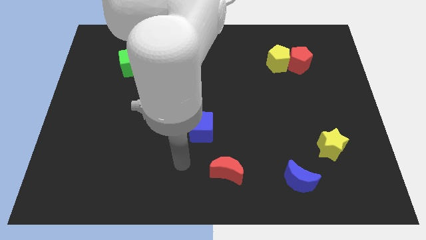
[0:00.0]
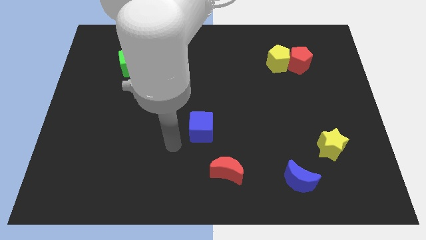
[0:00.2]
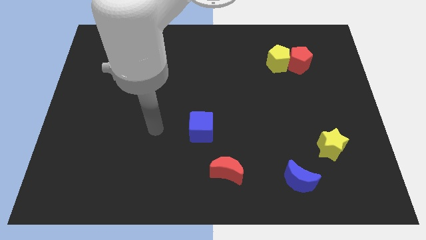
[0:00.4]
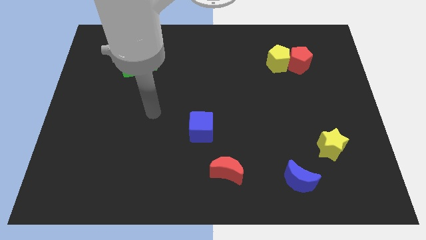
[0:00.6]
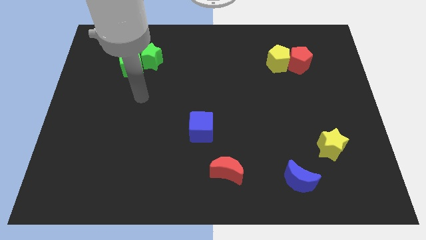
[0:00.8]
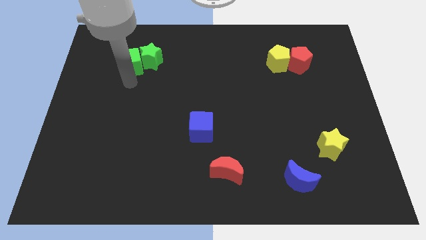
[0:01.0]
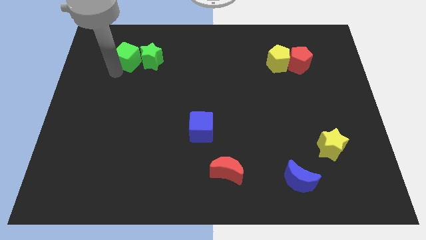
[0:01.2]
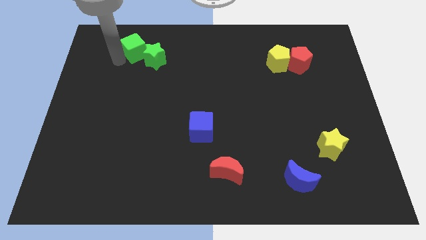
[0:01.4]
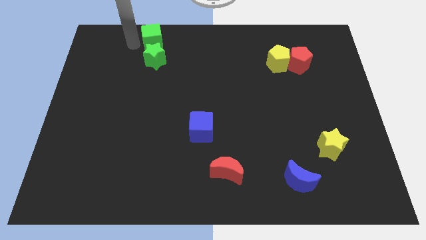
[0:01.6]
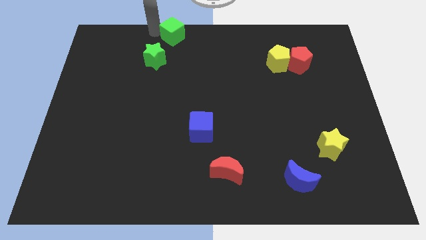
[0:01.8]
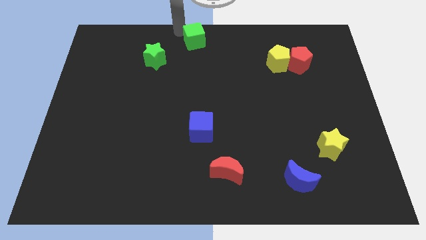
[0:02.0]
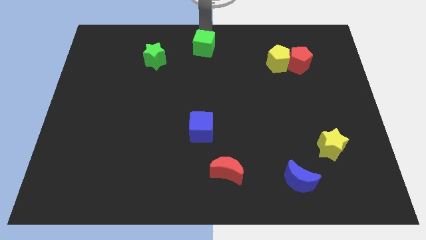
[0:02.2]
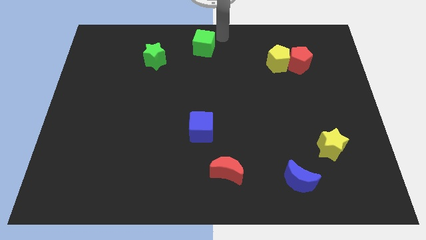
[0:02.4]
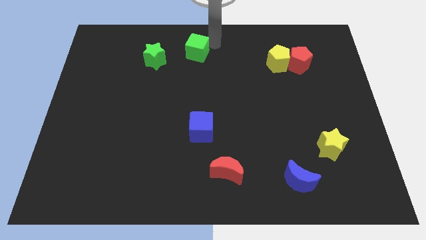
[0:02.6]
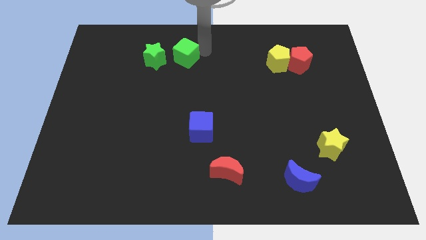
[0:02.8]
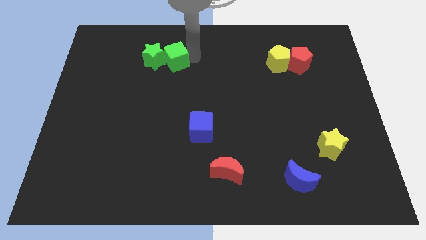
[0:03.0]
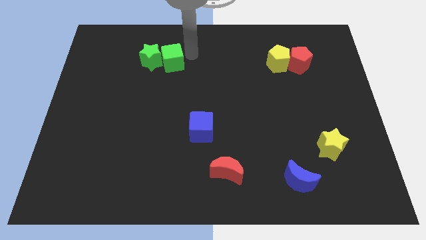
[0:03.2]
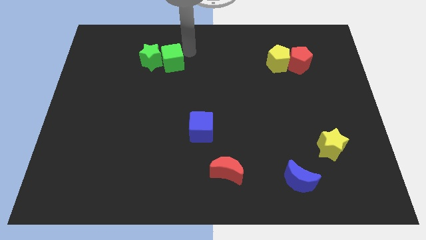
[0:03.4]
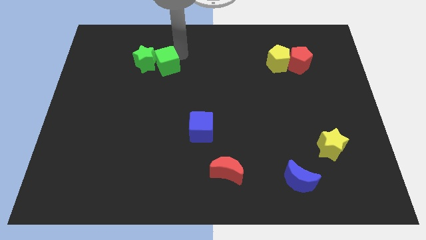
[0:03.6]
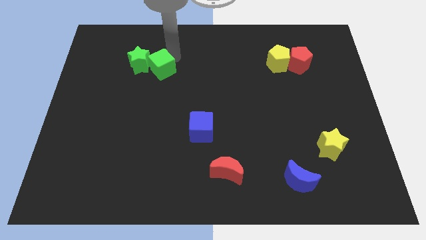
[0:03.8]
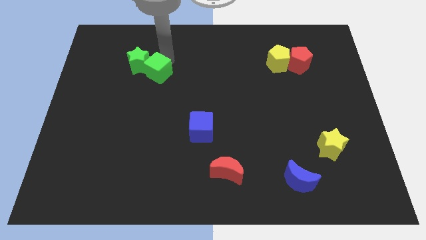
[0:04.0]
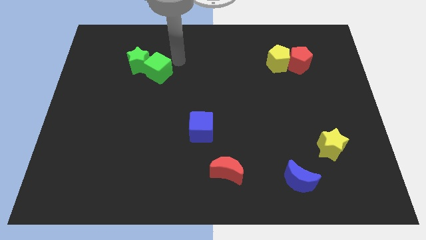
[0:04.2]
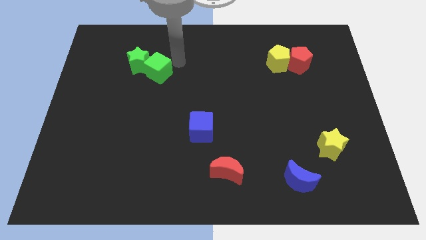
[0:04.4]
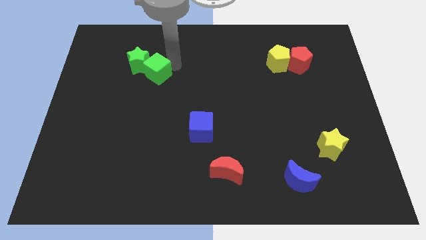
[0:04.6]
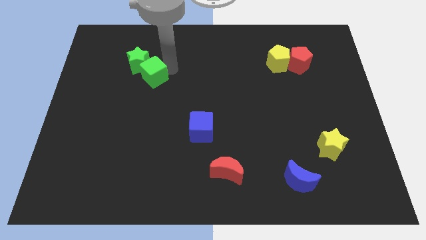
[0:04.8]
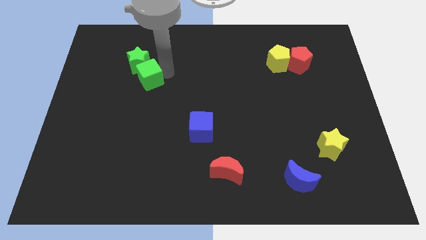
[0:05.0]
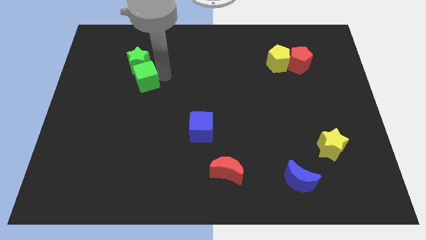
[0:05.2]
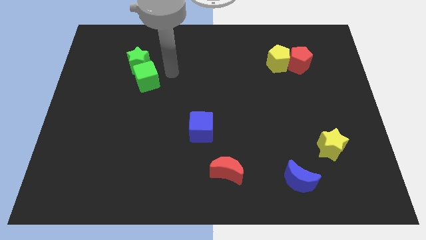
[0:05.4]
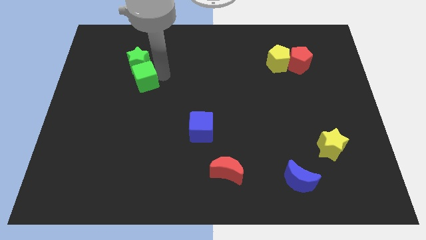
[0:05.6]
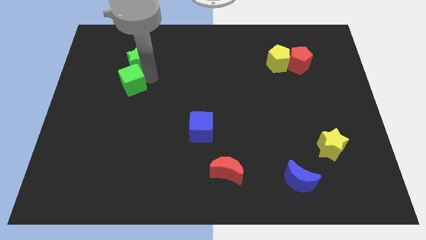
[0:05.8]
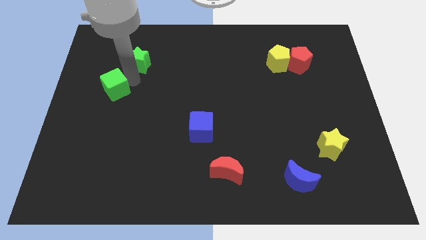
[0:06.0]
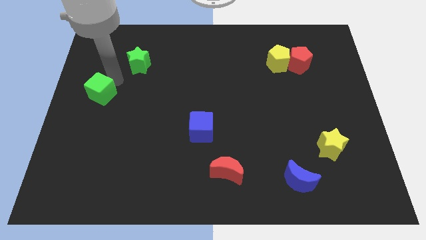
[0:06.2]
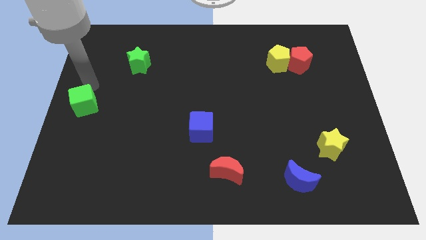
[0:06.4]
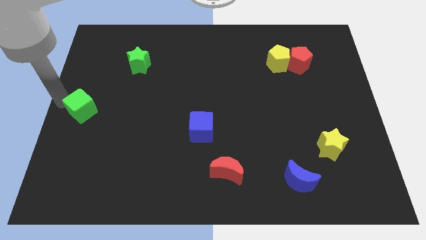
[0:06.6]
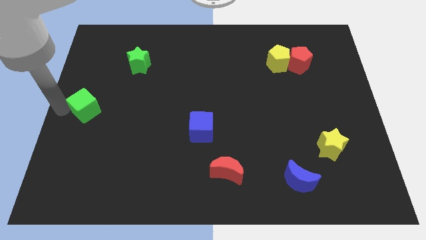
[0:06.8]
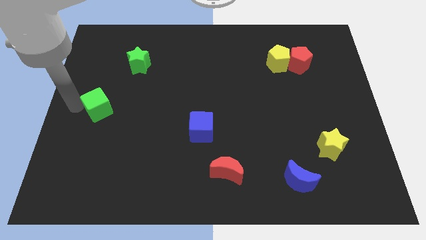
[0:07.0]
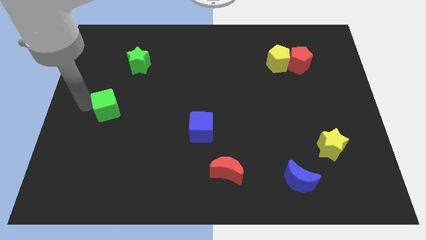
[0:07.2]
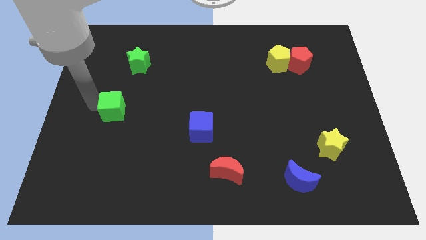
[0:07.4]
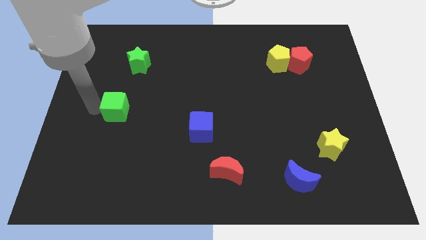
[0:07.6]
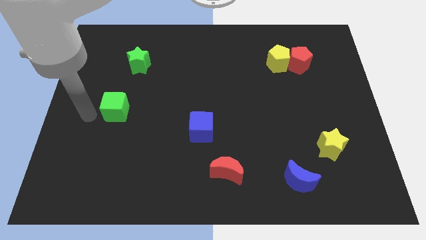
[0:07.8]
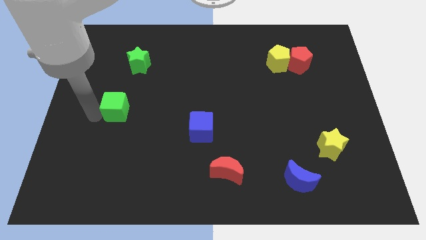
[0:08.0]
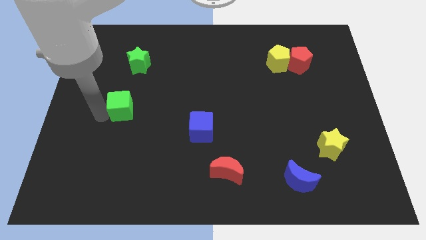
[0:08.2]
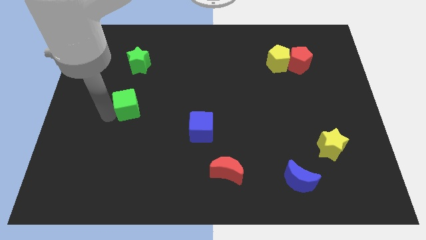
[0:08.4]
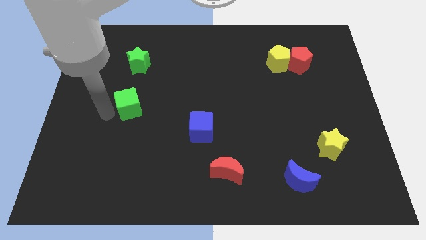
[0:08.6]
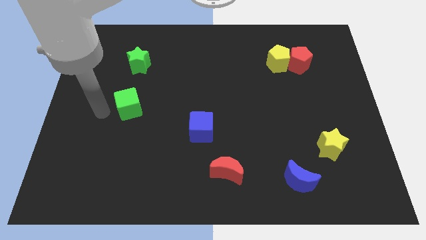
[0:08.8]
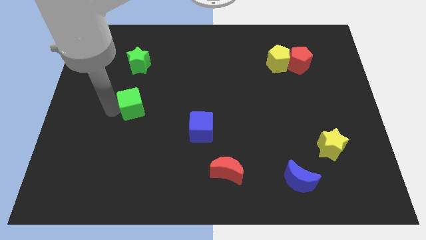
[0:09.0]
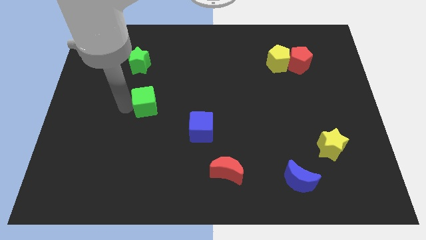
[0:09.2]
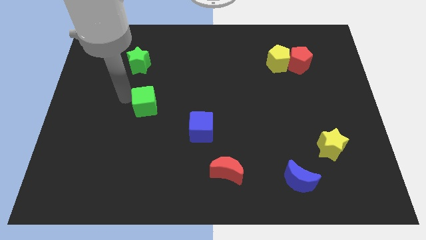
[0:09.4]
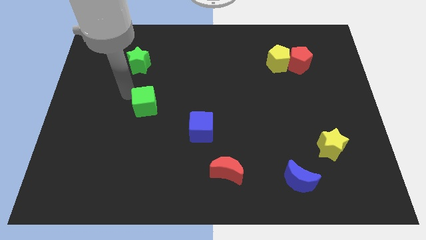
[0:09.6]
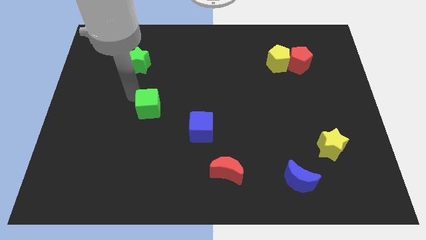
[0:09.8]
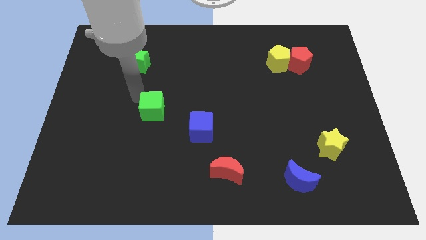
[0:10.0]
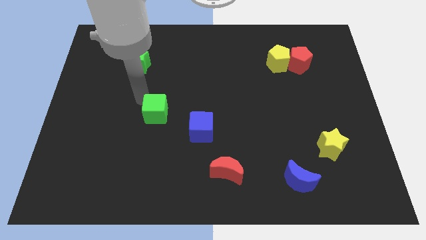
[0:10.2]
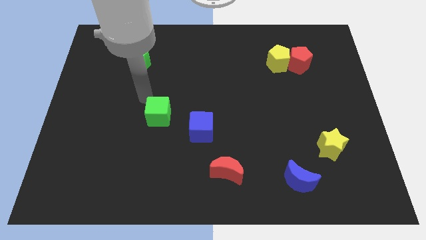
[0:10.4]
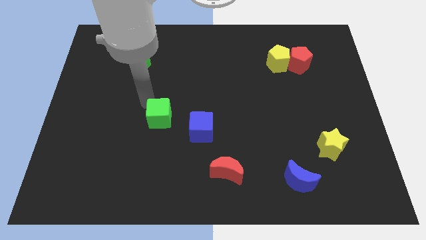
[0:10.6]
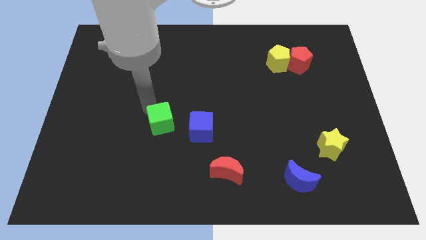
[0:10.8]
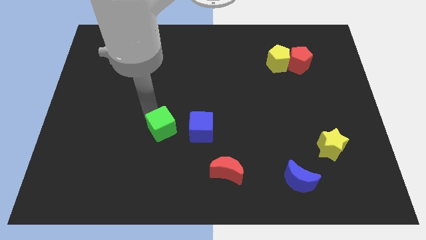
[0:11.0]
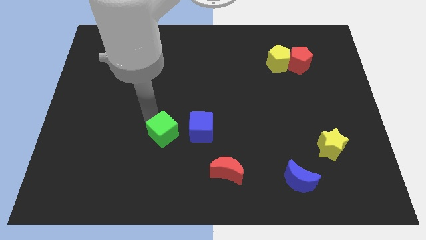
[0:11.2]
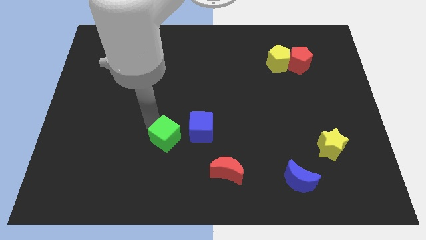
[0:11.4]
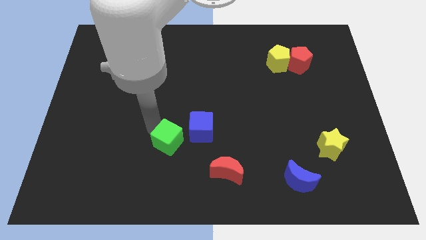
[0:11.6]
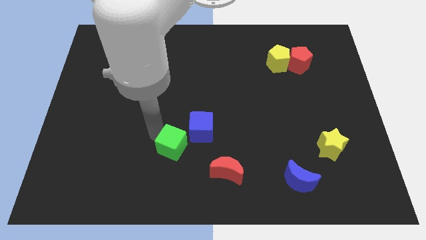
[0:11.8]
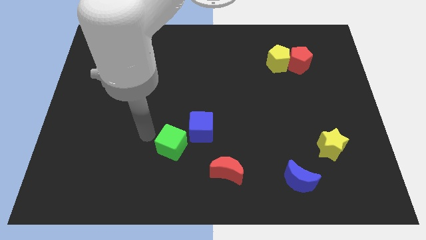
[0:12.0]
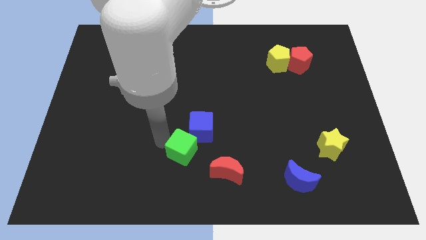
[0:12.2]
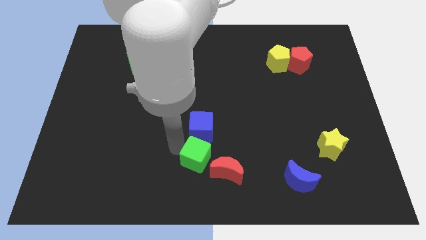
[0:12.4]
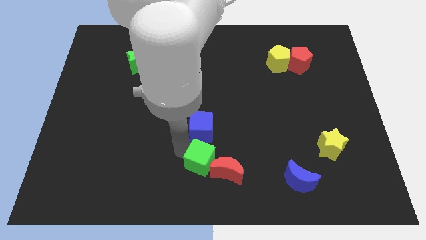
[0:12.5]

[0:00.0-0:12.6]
put the green cube towards the red moon

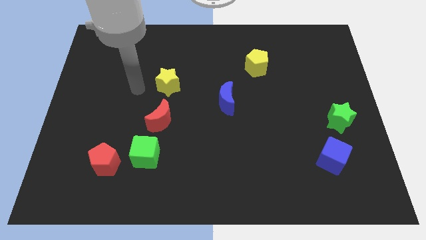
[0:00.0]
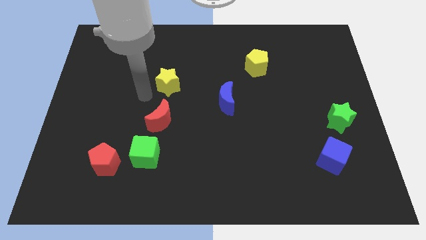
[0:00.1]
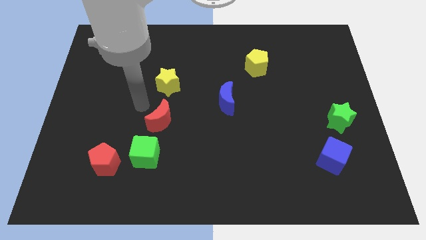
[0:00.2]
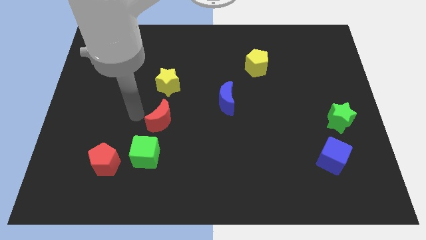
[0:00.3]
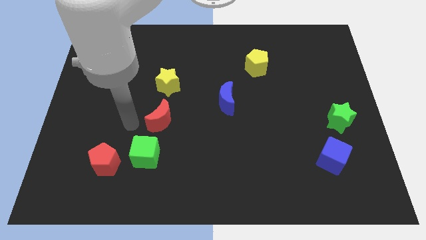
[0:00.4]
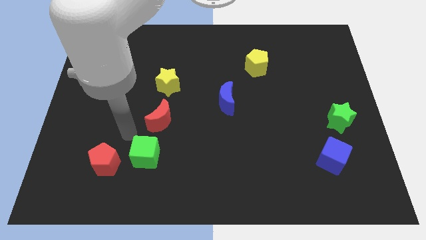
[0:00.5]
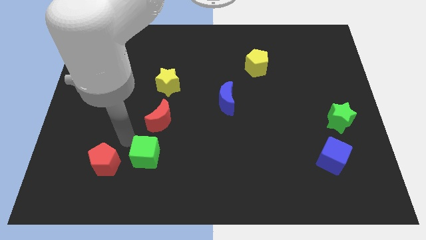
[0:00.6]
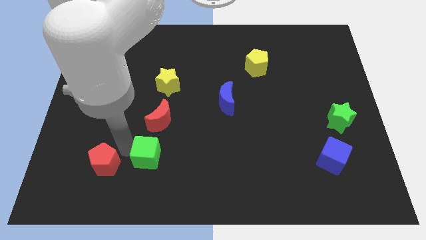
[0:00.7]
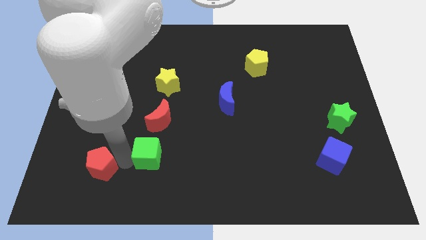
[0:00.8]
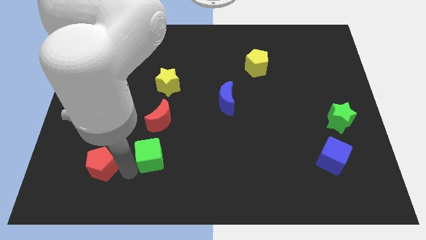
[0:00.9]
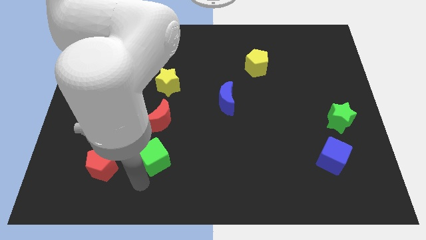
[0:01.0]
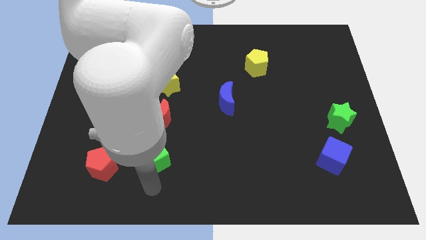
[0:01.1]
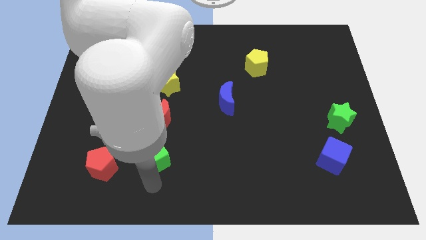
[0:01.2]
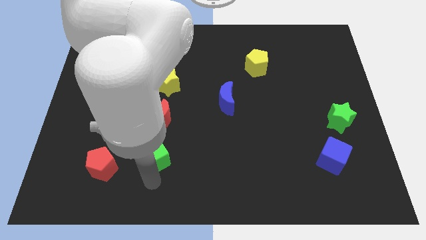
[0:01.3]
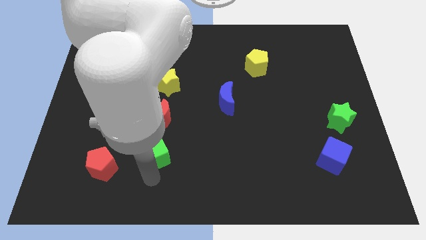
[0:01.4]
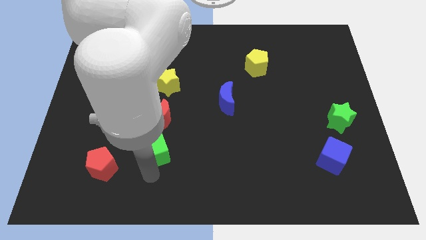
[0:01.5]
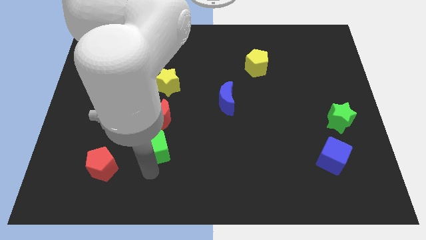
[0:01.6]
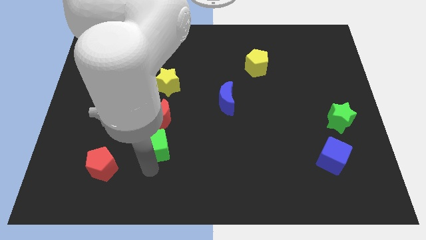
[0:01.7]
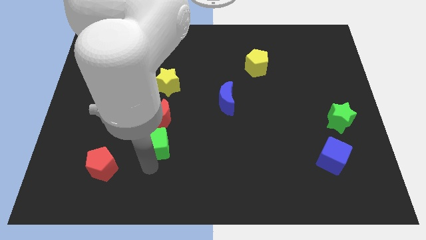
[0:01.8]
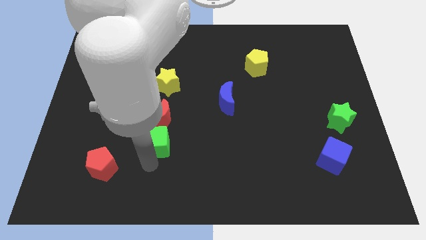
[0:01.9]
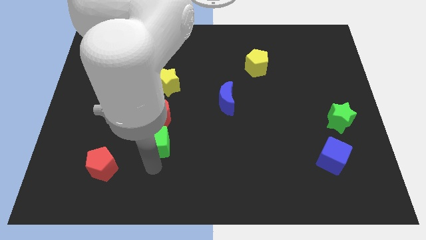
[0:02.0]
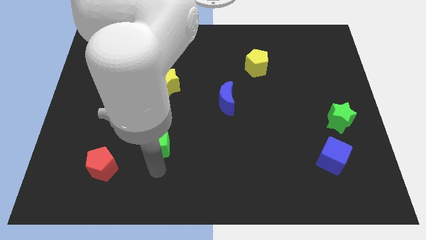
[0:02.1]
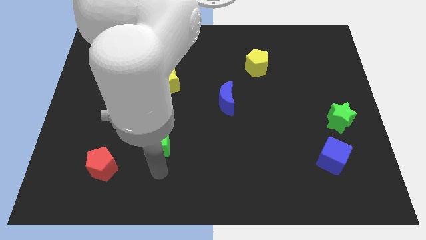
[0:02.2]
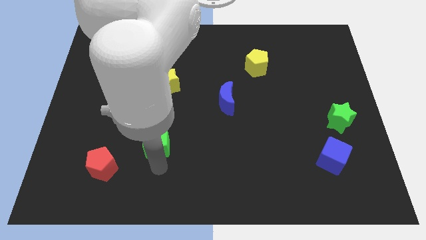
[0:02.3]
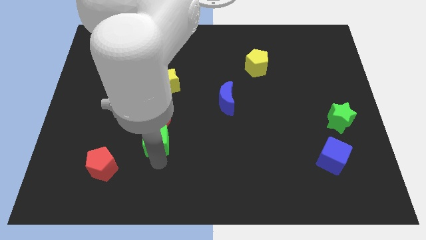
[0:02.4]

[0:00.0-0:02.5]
move the green cube next to the red moon
